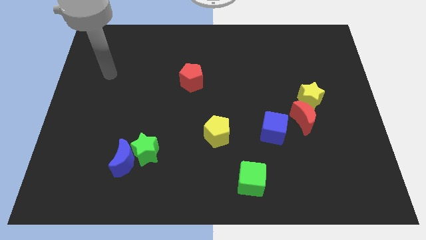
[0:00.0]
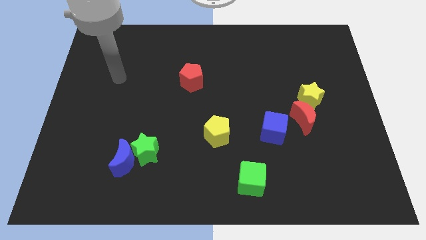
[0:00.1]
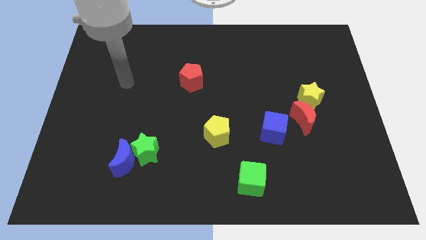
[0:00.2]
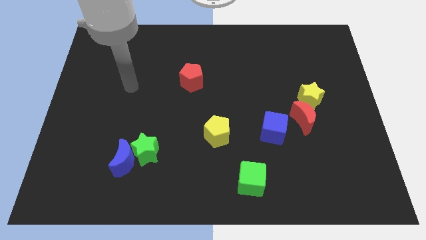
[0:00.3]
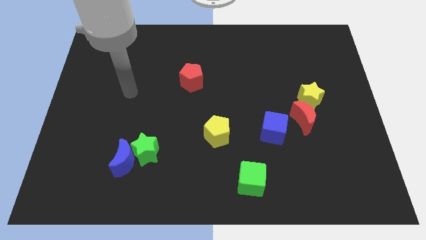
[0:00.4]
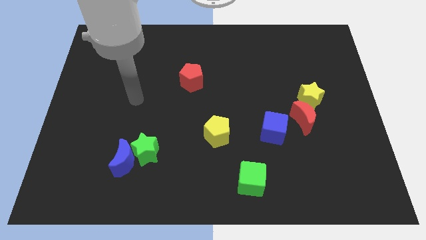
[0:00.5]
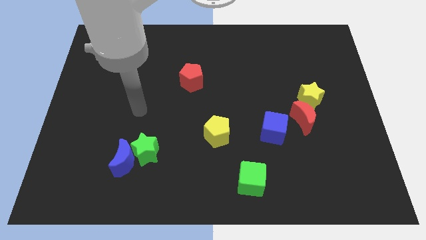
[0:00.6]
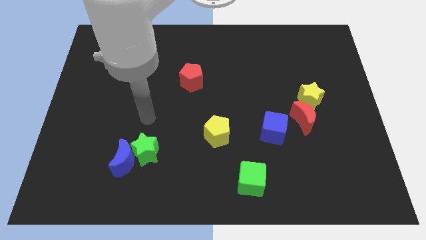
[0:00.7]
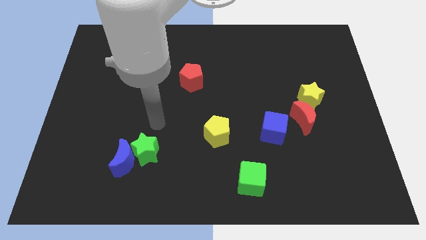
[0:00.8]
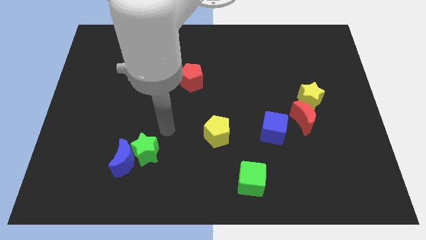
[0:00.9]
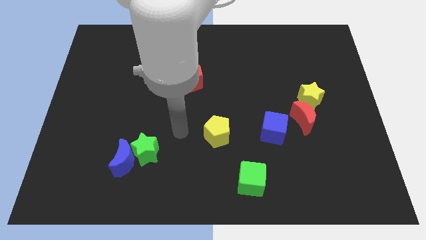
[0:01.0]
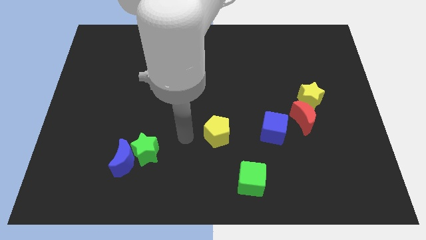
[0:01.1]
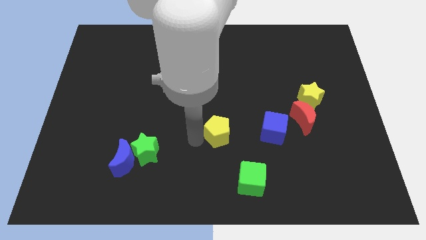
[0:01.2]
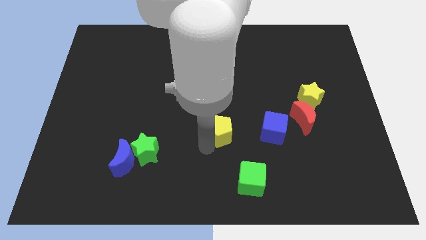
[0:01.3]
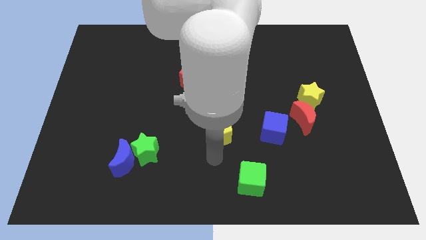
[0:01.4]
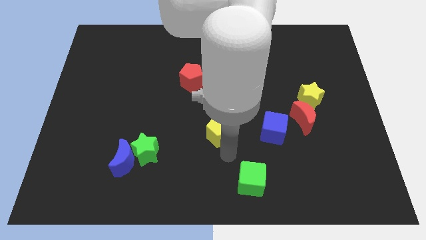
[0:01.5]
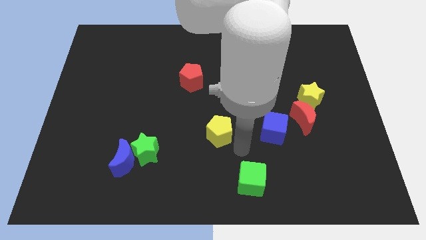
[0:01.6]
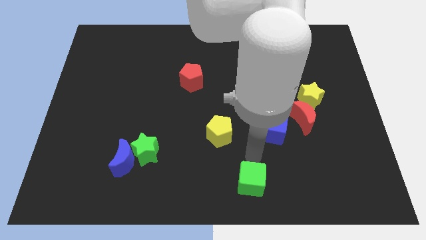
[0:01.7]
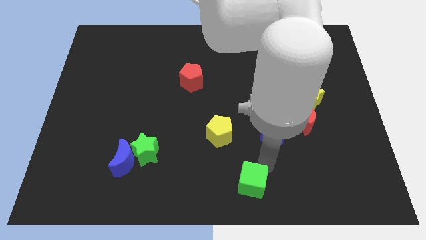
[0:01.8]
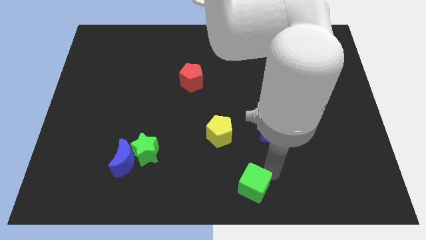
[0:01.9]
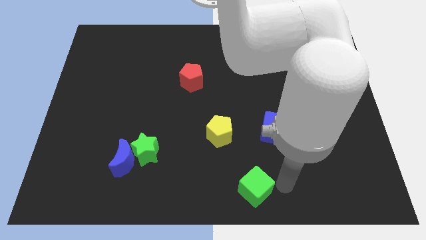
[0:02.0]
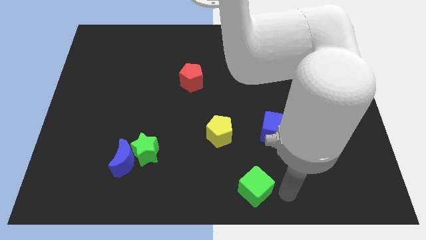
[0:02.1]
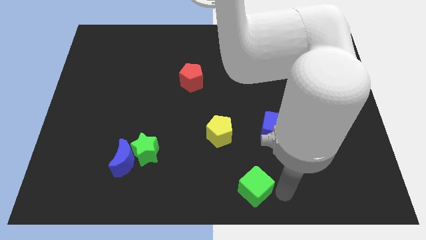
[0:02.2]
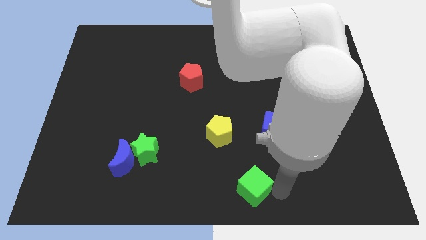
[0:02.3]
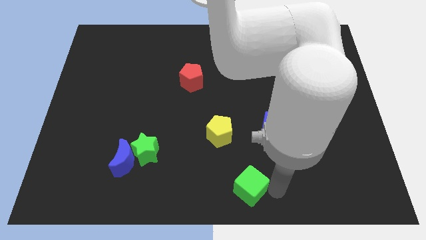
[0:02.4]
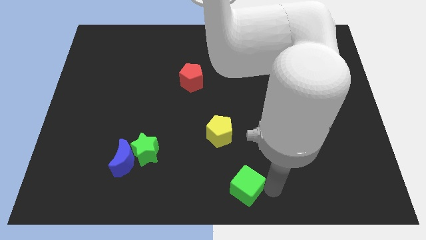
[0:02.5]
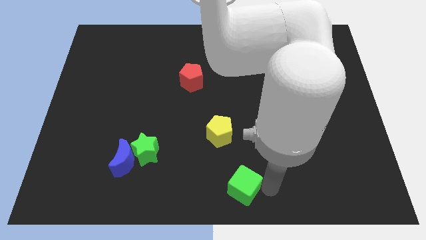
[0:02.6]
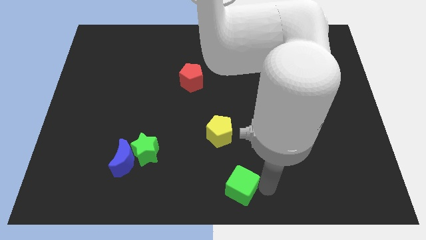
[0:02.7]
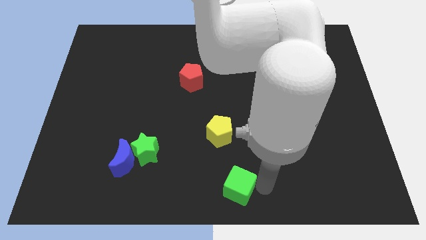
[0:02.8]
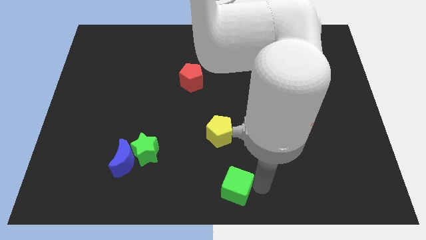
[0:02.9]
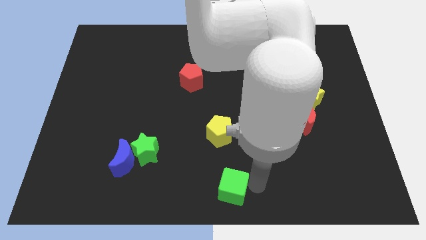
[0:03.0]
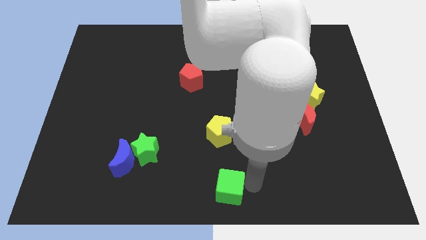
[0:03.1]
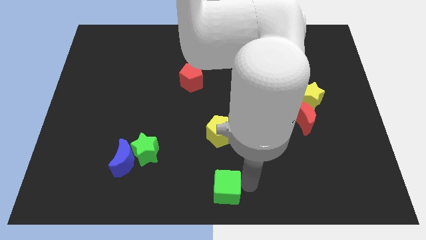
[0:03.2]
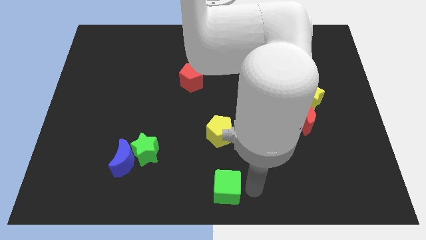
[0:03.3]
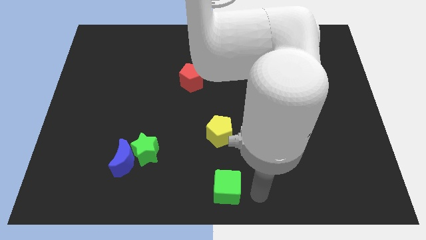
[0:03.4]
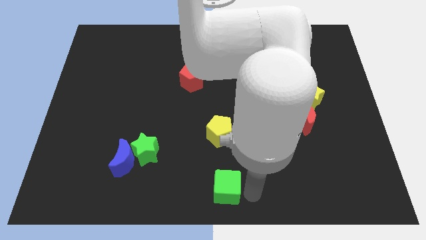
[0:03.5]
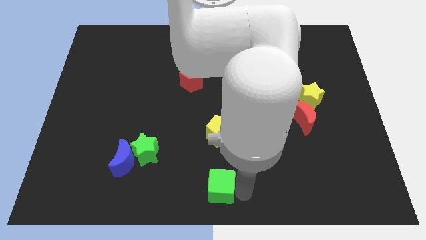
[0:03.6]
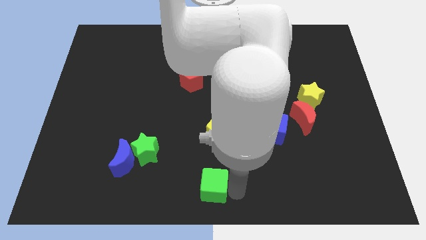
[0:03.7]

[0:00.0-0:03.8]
move the green cube slightly left

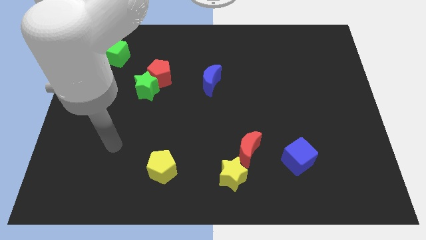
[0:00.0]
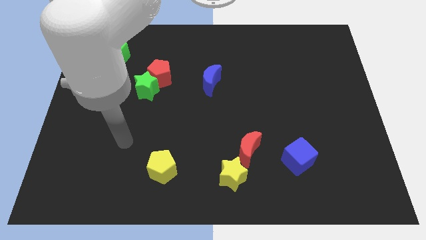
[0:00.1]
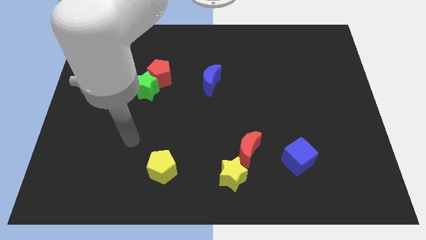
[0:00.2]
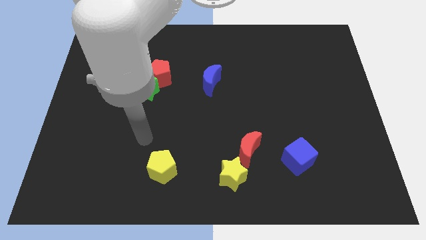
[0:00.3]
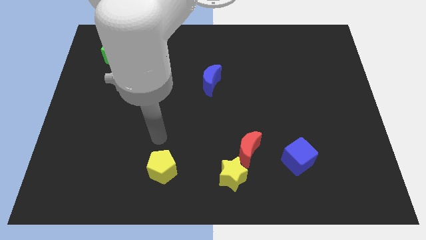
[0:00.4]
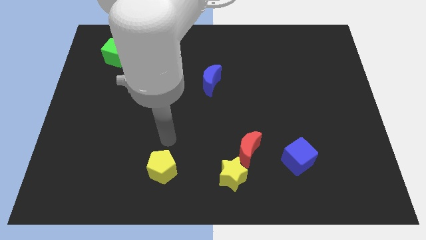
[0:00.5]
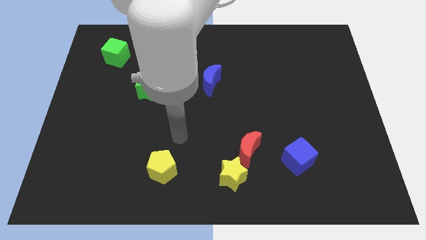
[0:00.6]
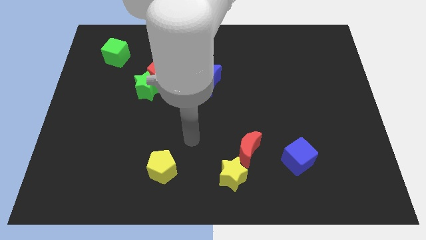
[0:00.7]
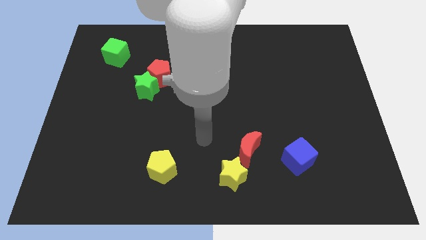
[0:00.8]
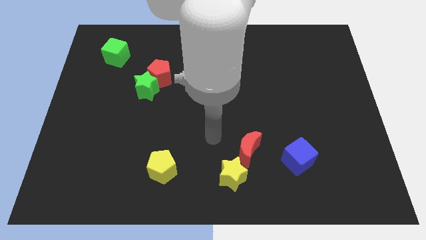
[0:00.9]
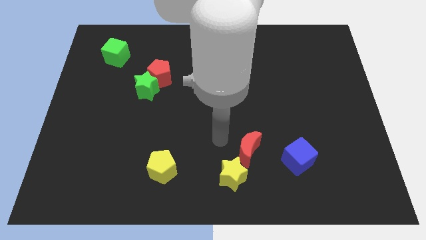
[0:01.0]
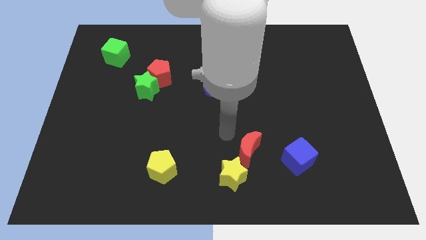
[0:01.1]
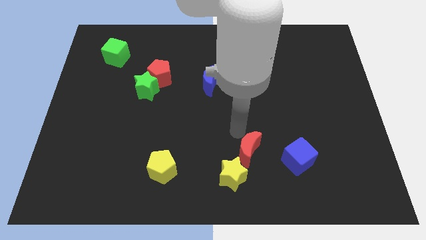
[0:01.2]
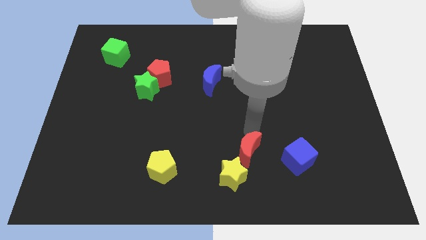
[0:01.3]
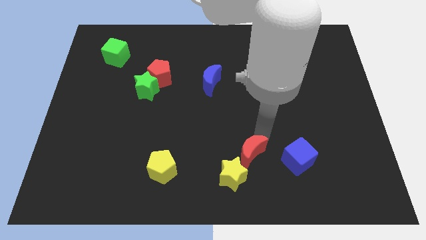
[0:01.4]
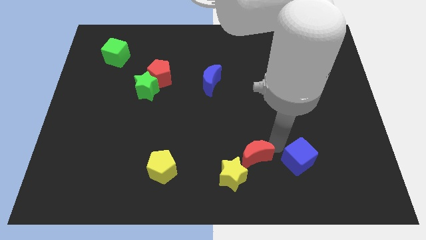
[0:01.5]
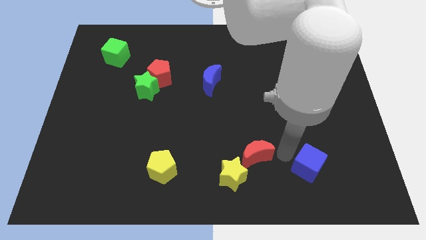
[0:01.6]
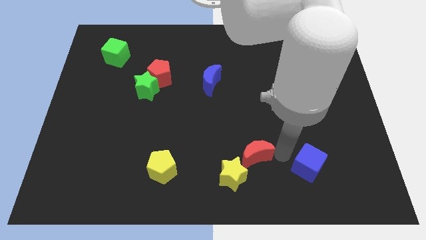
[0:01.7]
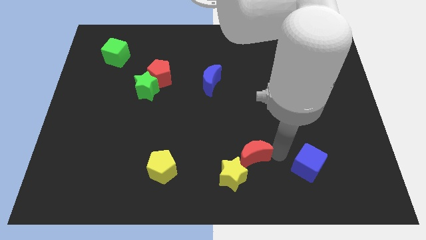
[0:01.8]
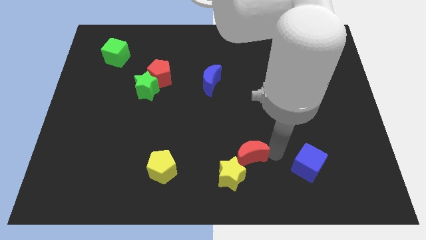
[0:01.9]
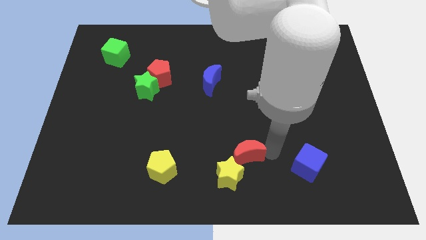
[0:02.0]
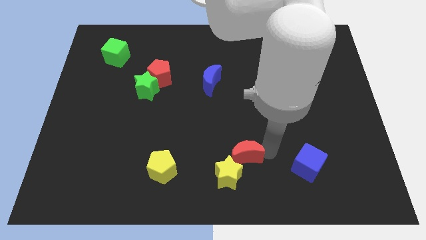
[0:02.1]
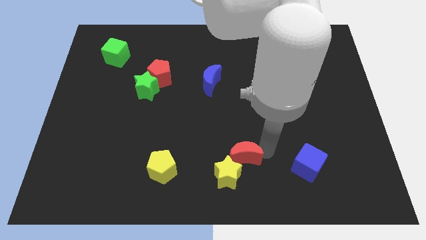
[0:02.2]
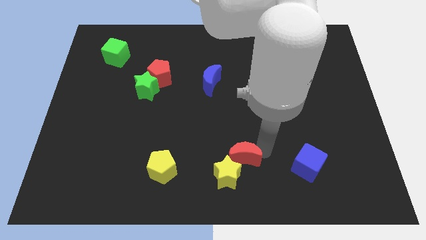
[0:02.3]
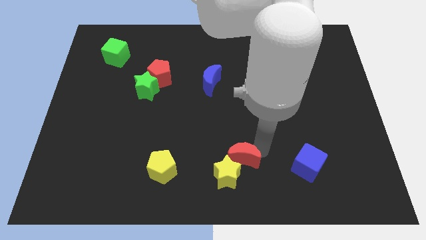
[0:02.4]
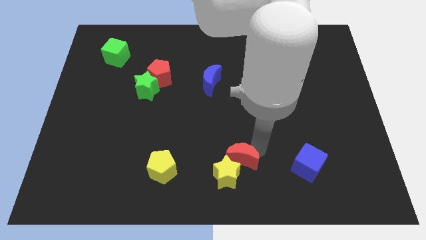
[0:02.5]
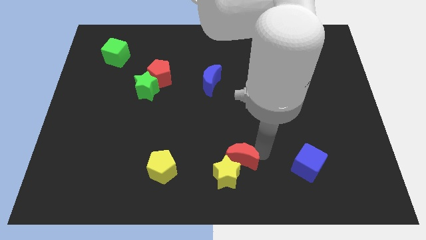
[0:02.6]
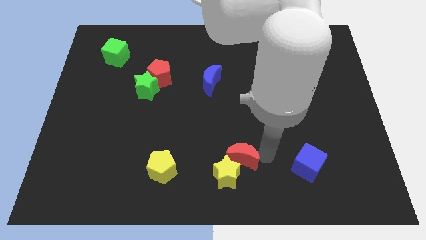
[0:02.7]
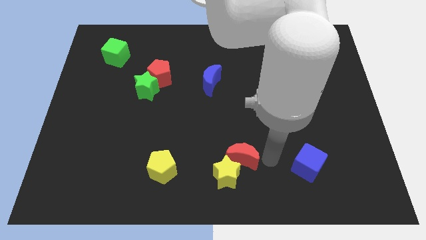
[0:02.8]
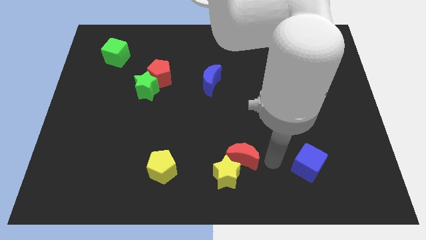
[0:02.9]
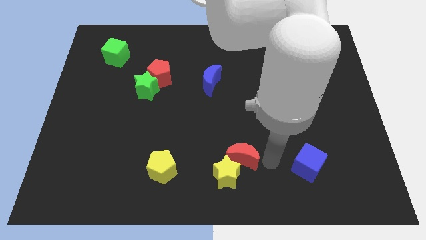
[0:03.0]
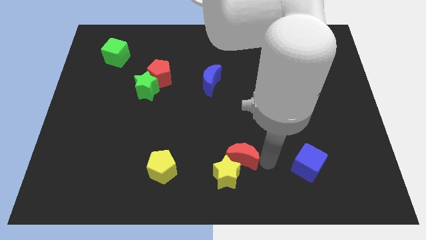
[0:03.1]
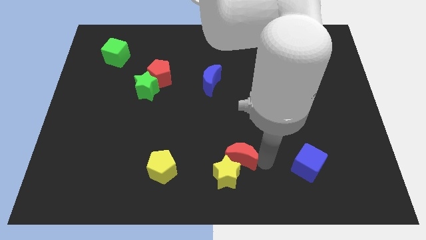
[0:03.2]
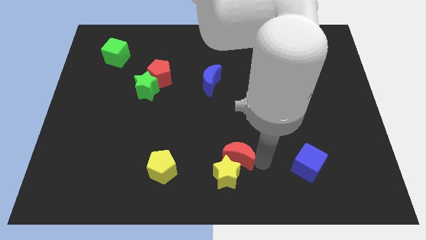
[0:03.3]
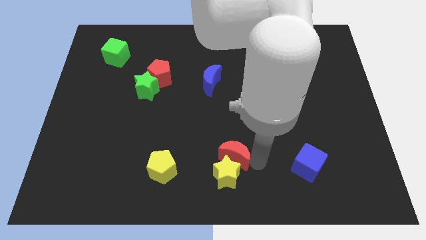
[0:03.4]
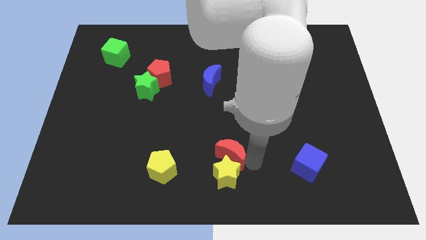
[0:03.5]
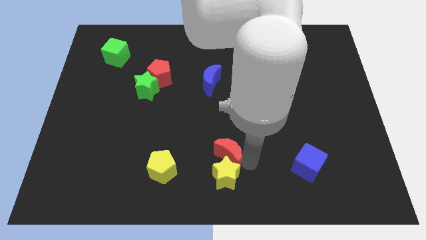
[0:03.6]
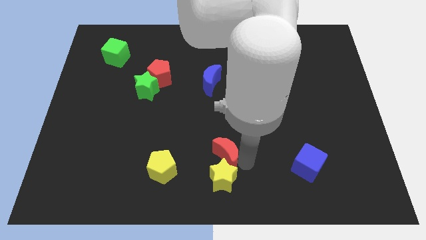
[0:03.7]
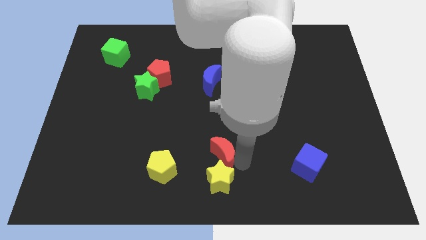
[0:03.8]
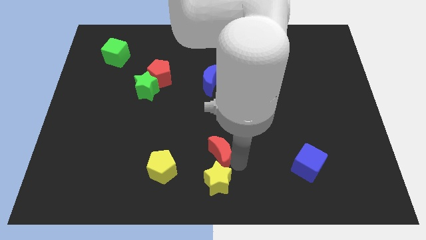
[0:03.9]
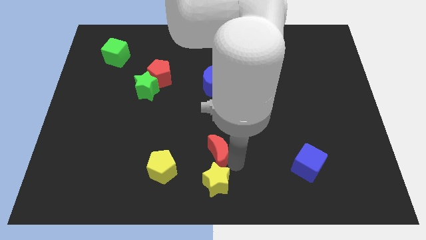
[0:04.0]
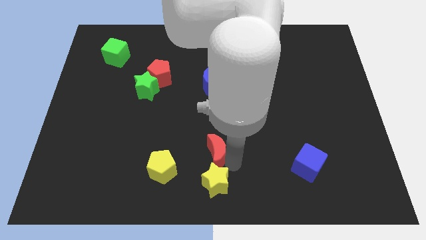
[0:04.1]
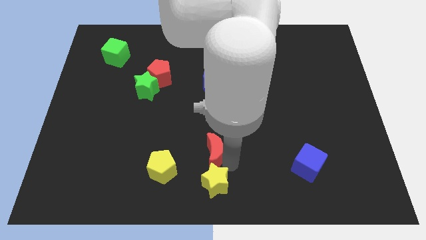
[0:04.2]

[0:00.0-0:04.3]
push the red moon to the left somewhat

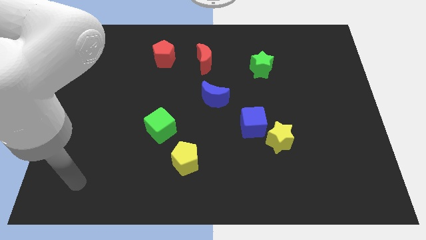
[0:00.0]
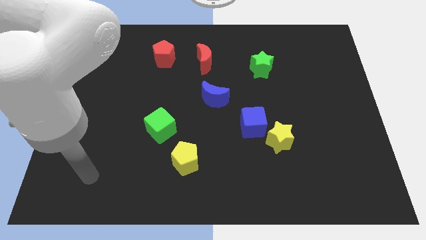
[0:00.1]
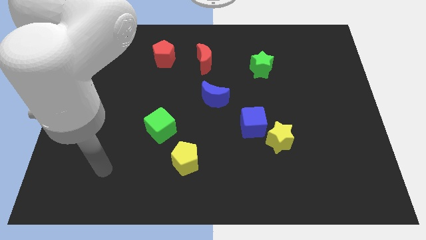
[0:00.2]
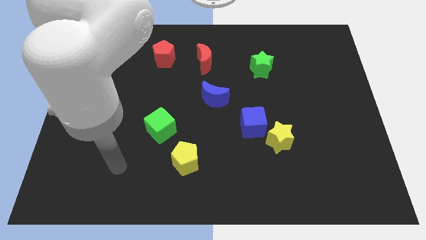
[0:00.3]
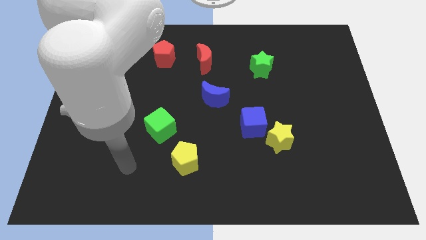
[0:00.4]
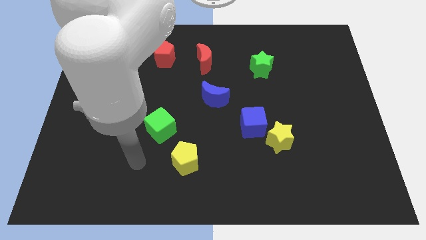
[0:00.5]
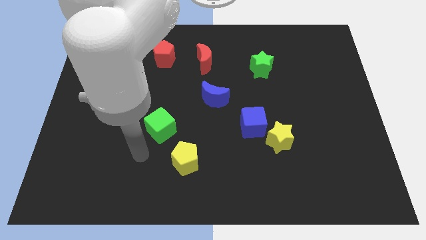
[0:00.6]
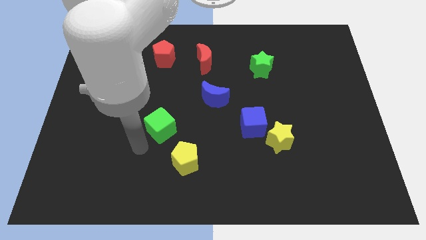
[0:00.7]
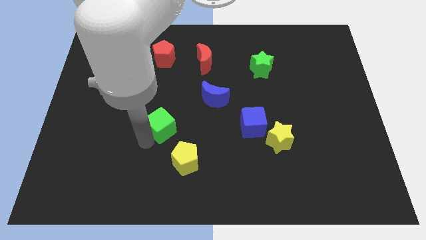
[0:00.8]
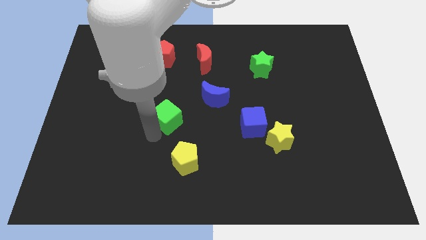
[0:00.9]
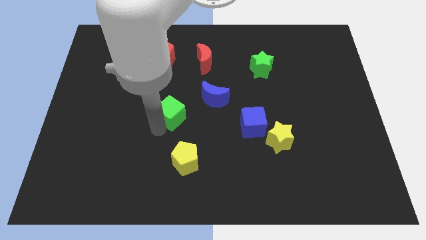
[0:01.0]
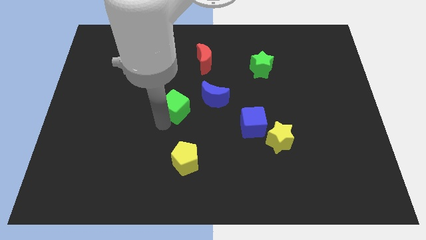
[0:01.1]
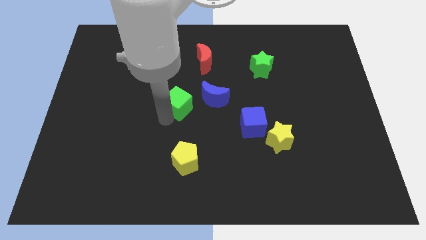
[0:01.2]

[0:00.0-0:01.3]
move the green cube a little bit upwards and to the right diagonally
